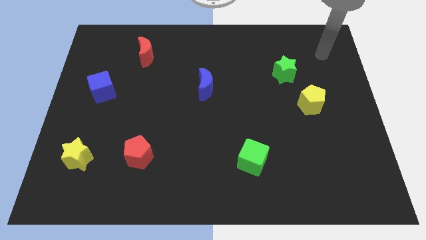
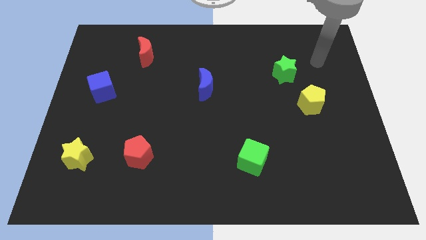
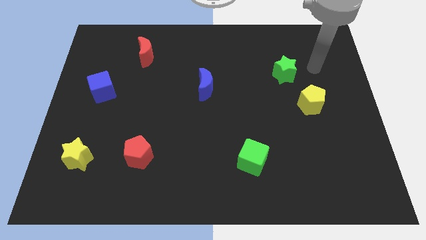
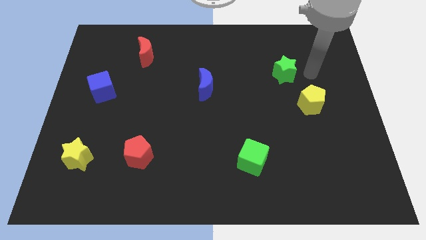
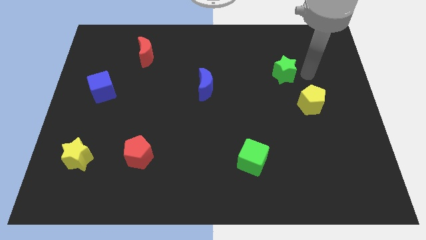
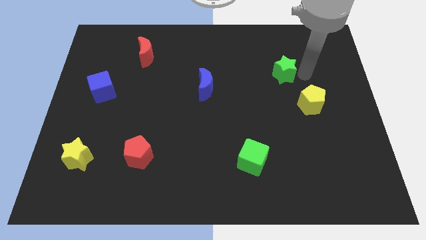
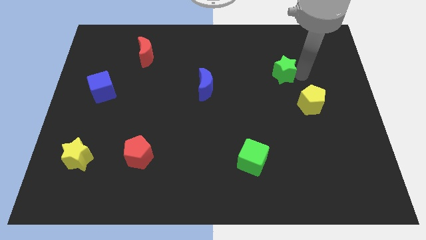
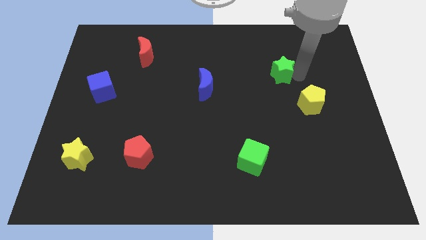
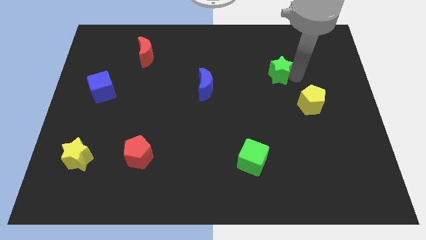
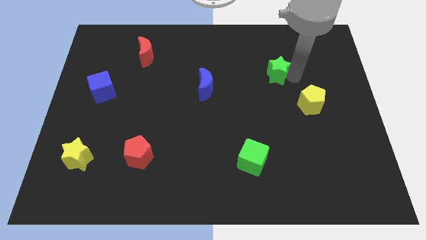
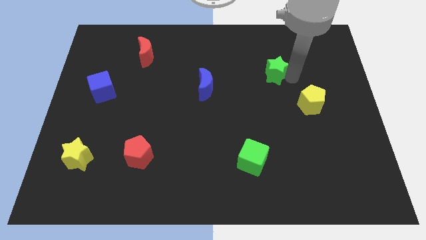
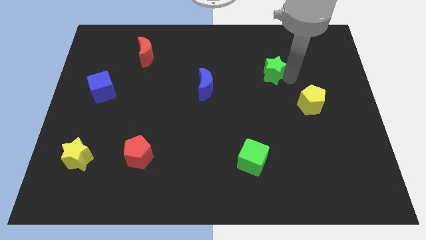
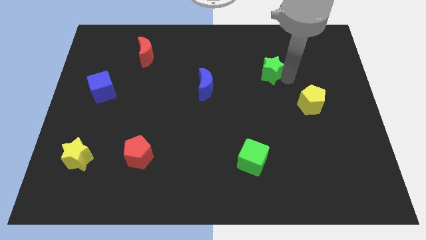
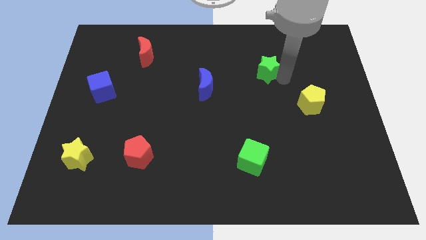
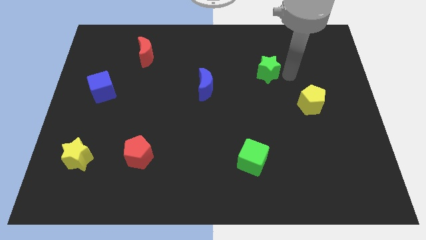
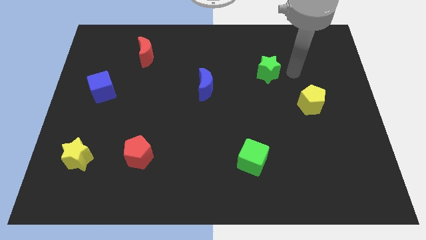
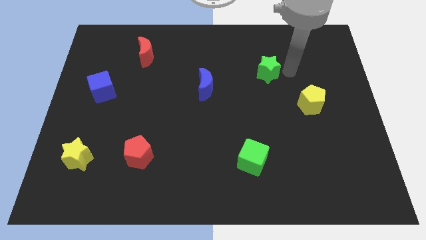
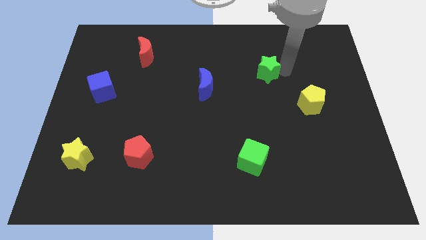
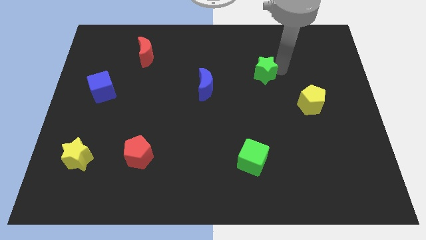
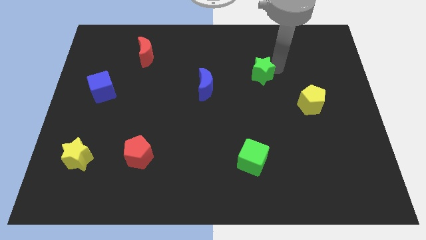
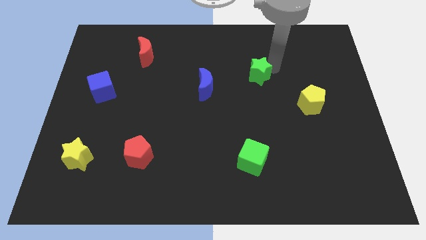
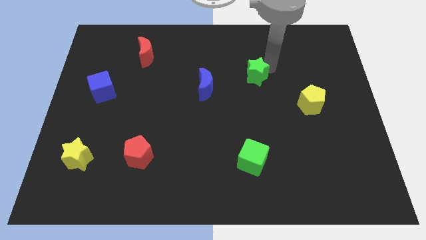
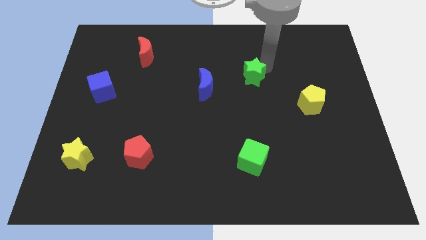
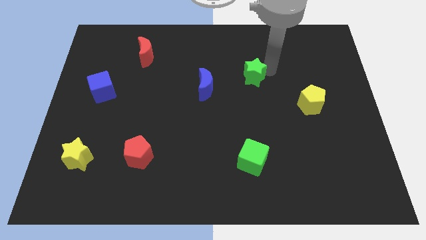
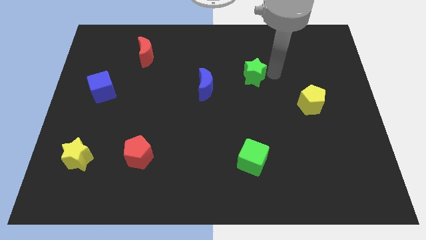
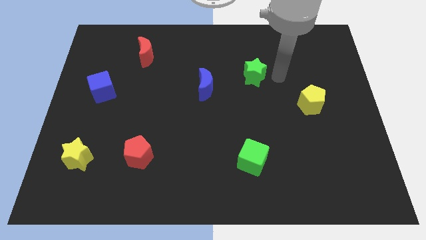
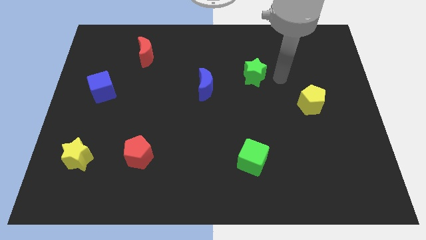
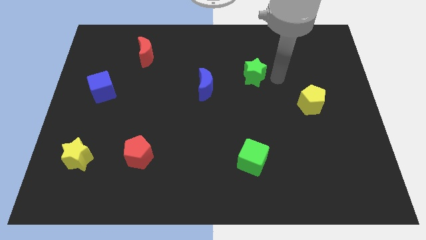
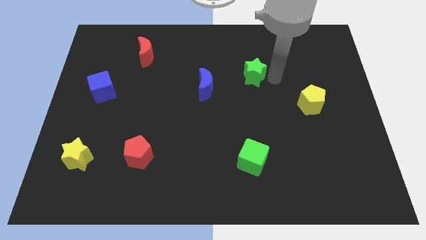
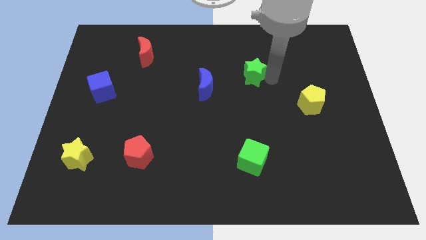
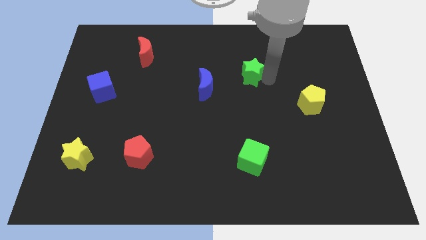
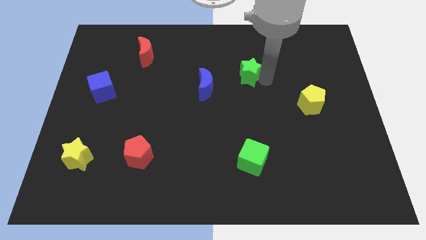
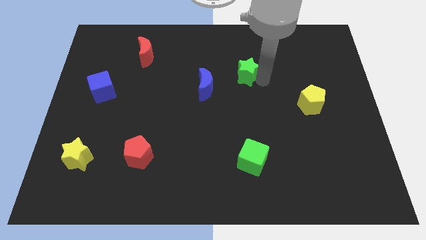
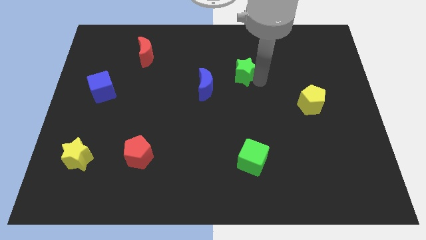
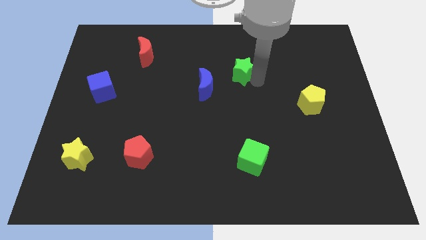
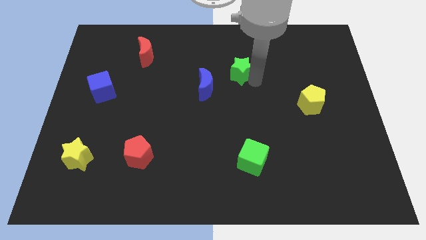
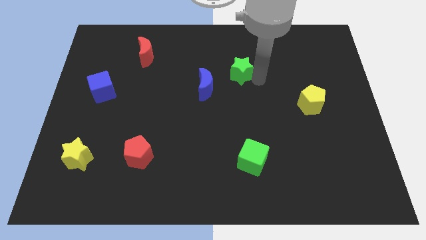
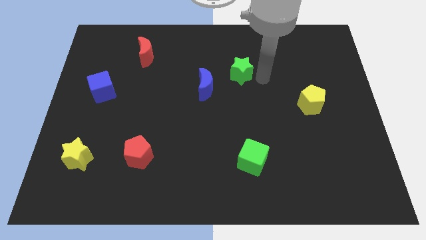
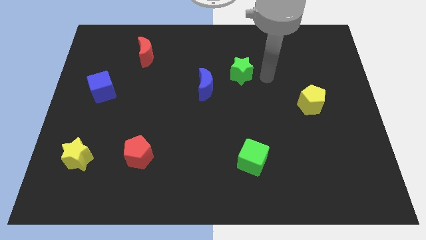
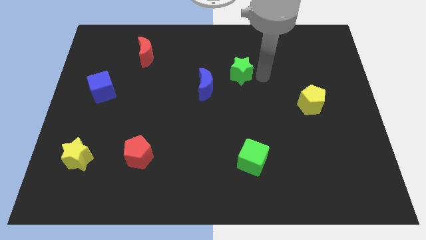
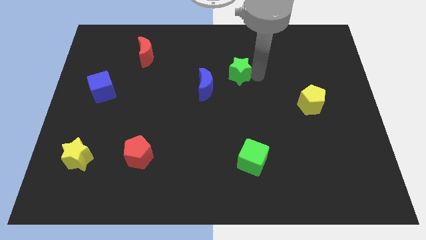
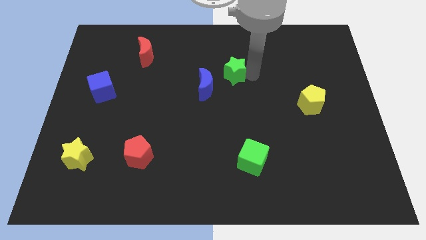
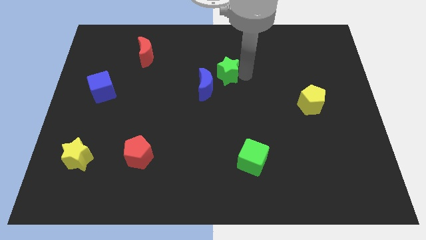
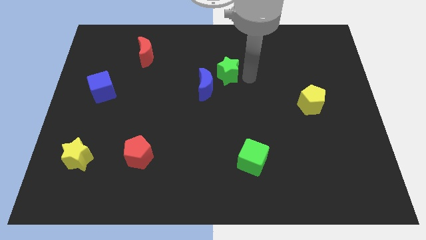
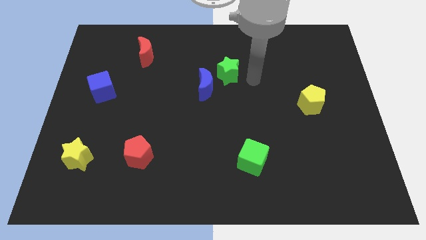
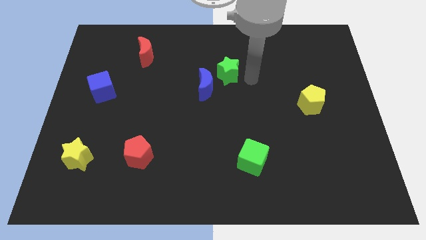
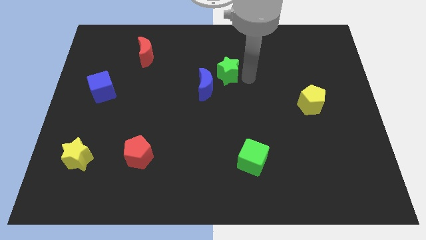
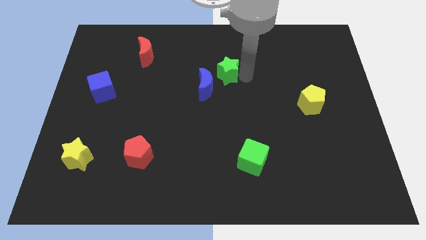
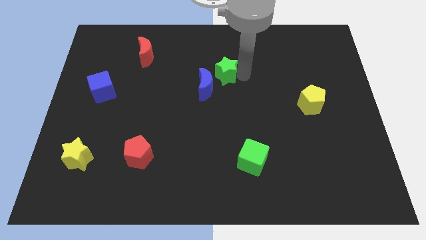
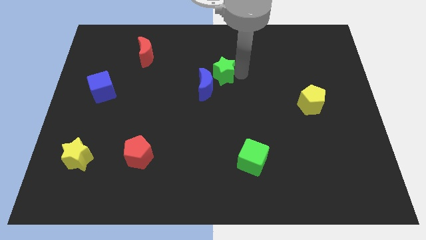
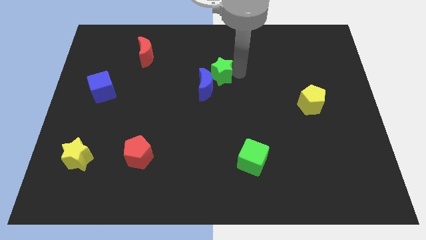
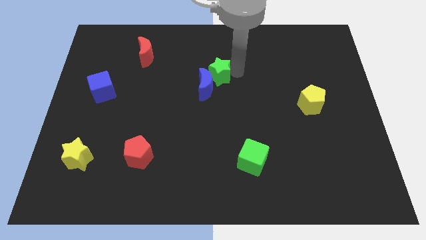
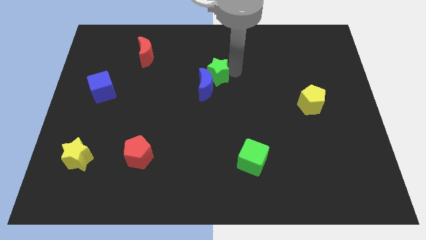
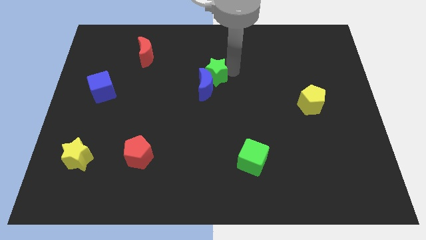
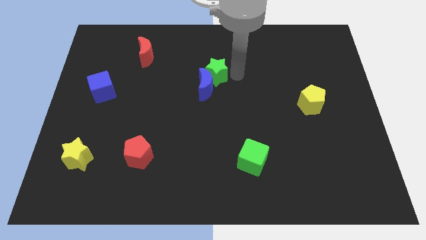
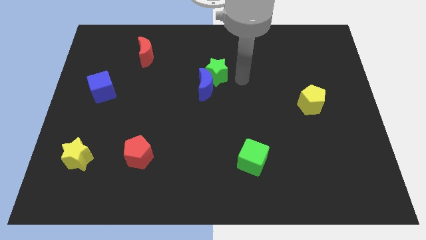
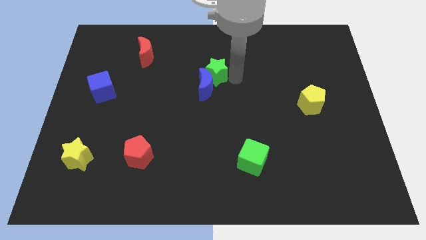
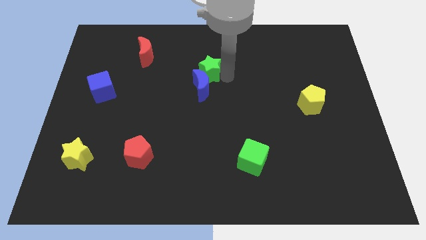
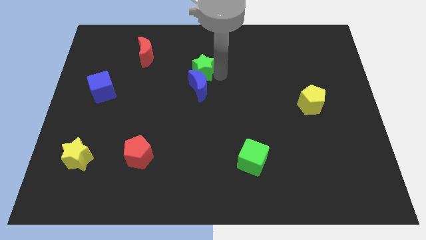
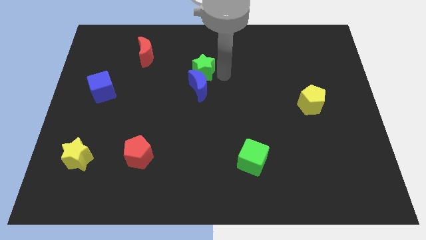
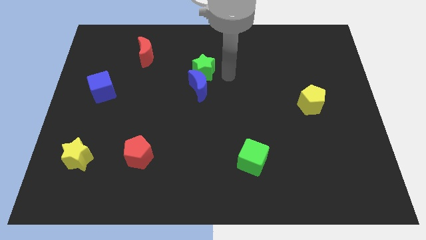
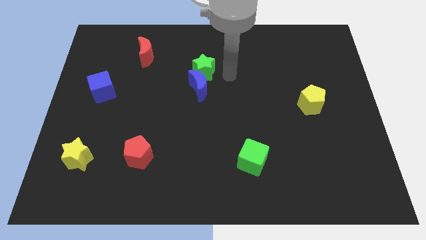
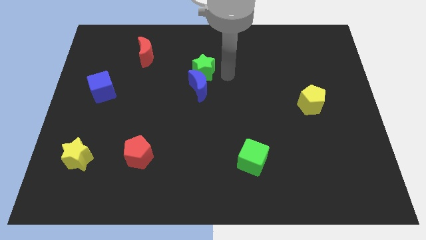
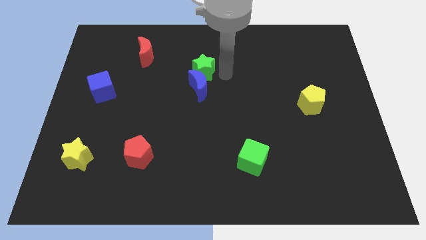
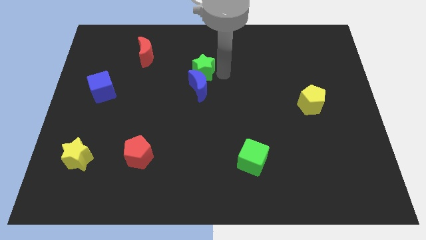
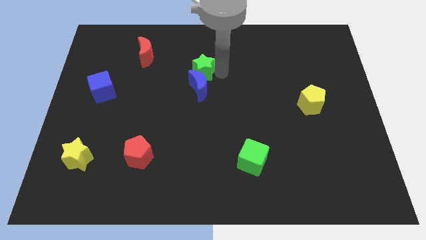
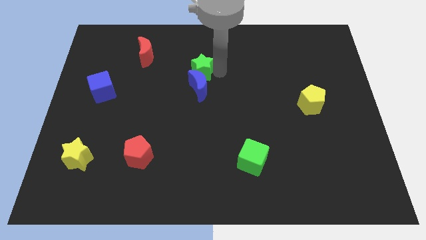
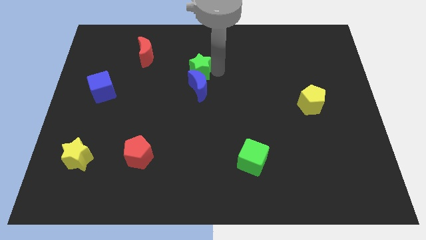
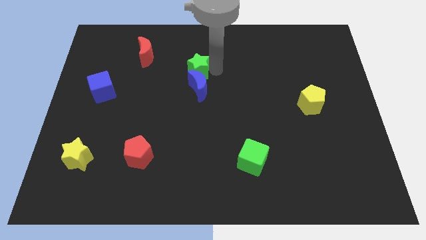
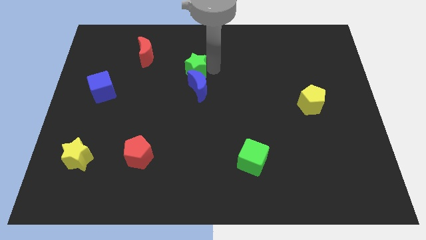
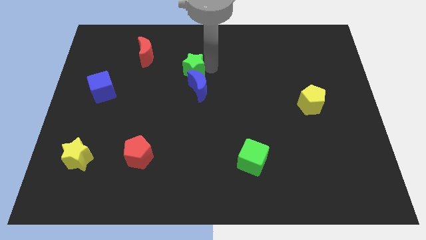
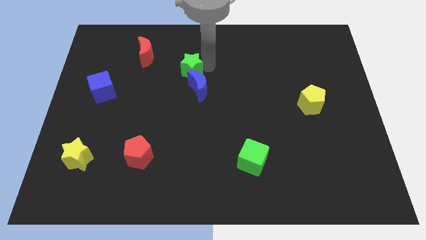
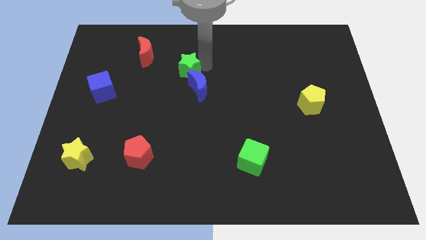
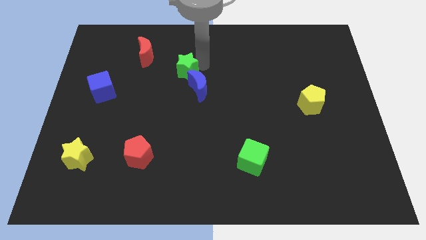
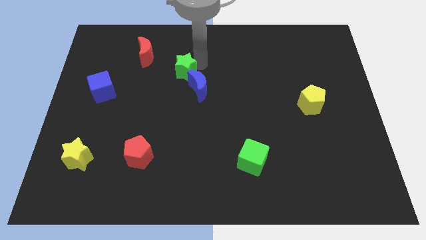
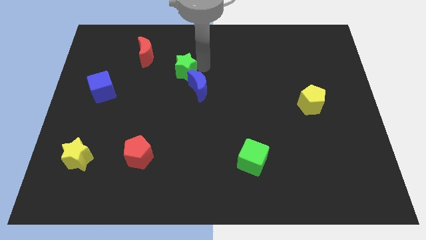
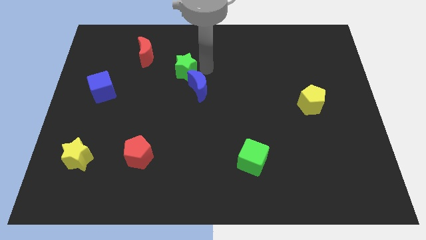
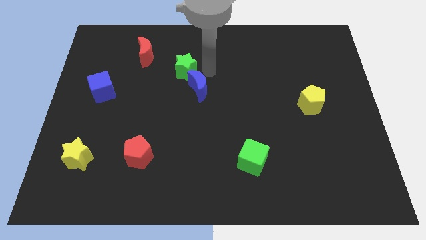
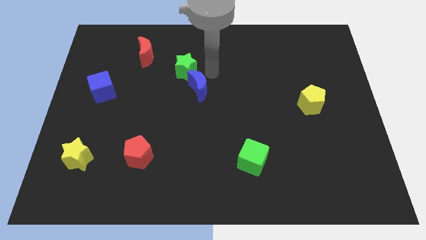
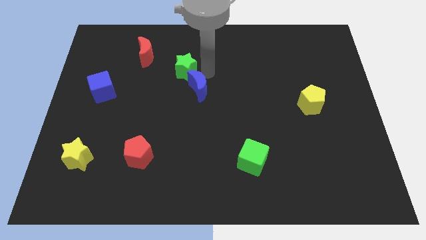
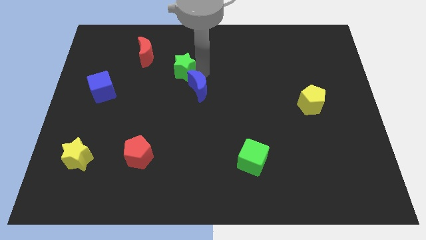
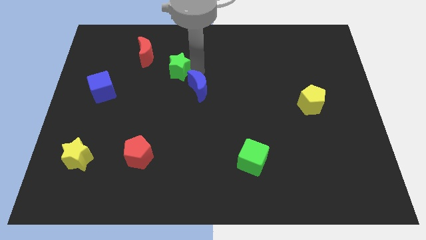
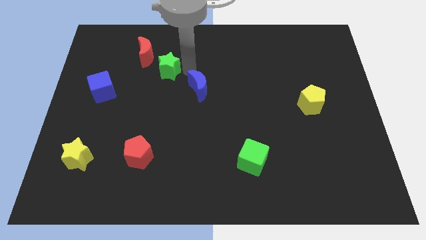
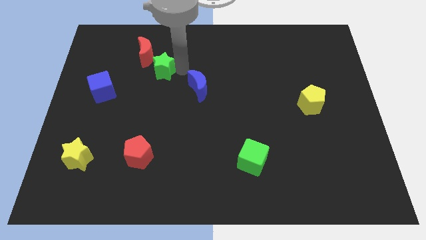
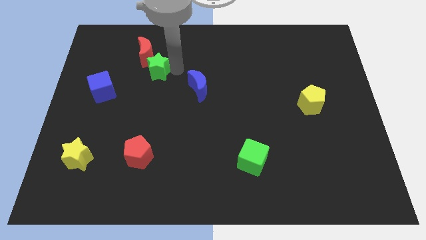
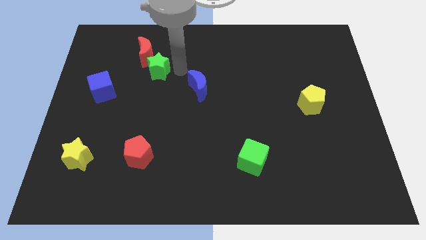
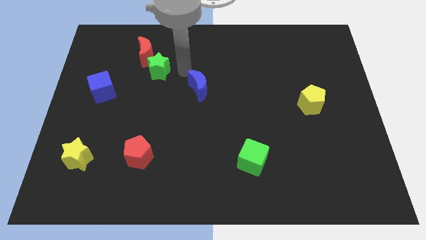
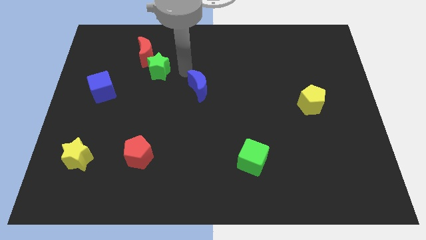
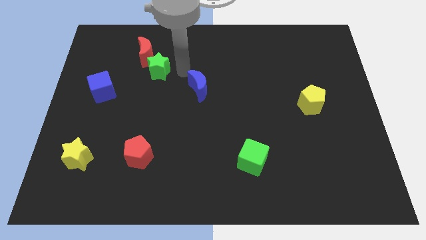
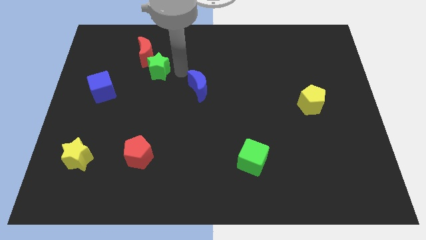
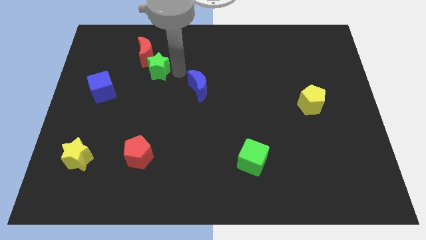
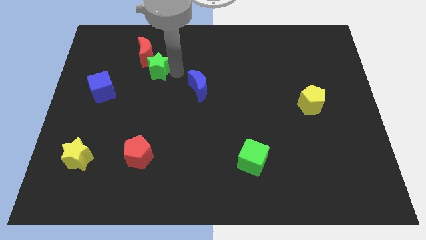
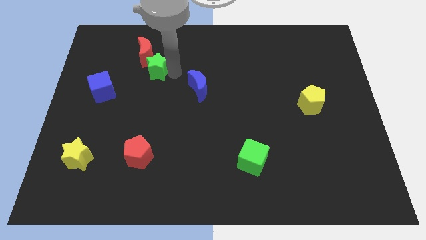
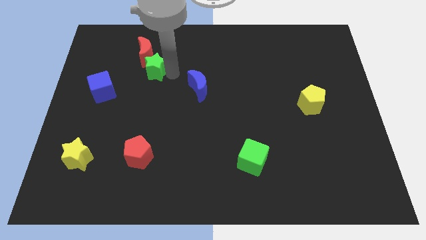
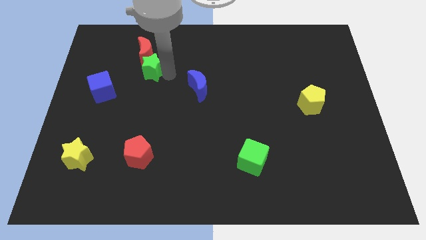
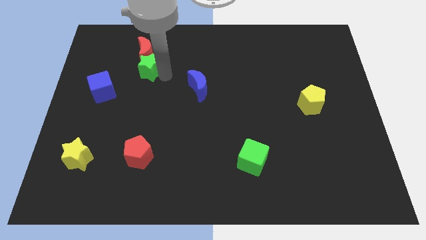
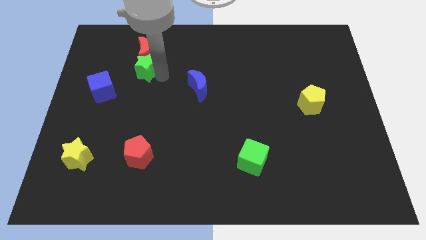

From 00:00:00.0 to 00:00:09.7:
move the green star to the bottom left of the red moon
